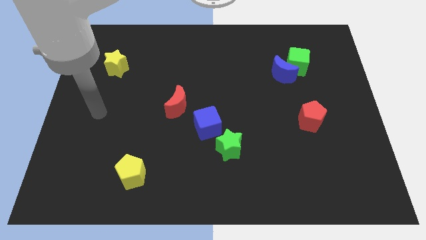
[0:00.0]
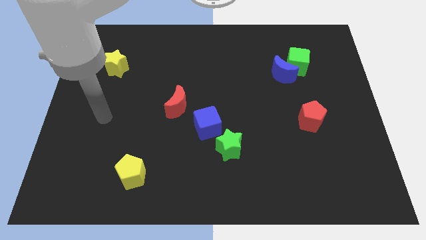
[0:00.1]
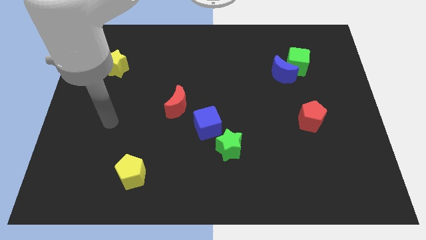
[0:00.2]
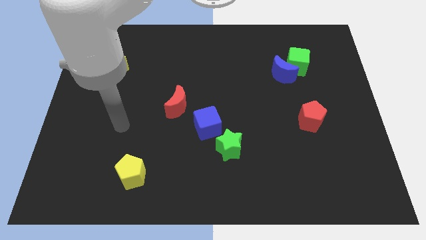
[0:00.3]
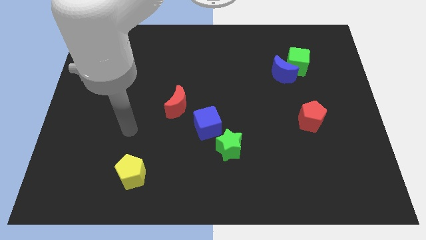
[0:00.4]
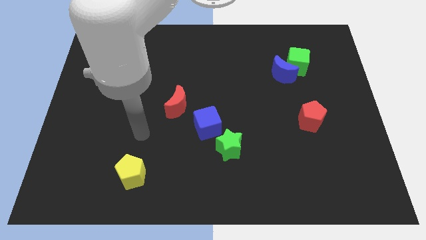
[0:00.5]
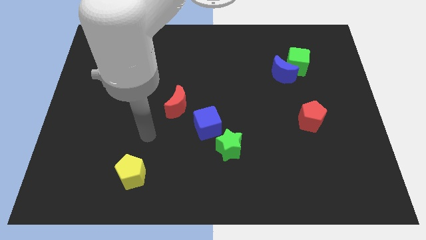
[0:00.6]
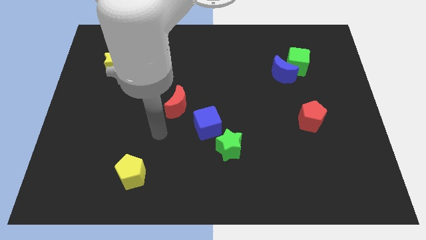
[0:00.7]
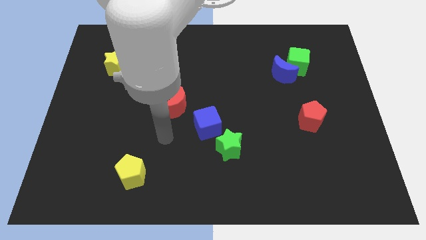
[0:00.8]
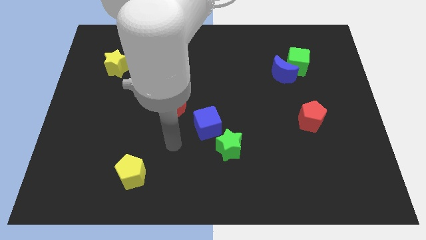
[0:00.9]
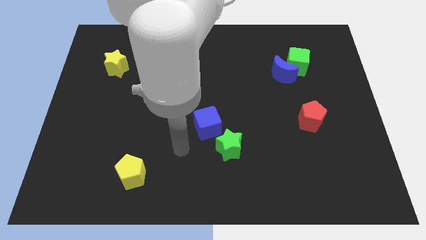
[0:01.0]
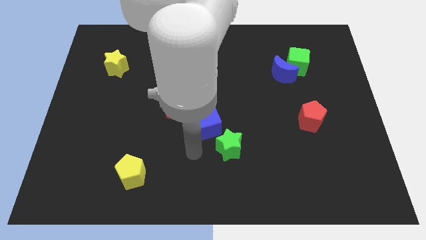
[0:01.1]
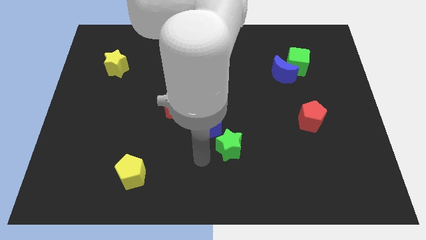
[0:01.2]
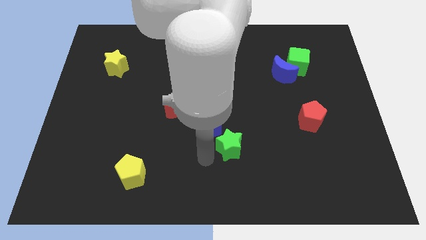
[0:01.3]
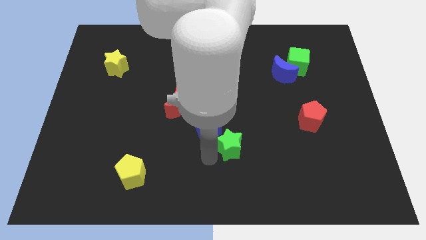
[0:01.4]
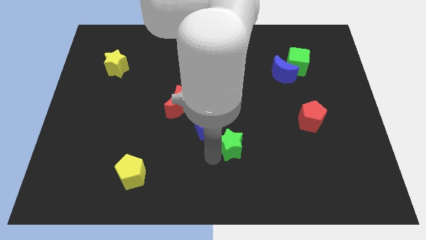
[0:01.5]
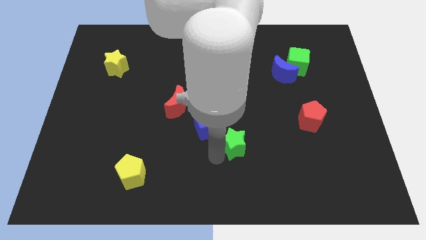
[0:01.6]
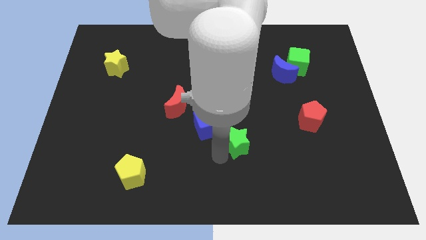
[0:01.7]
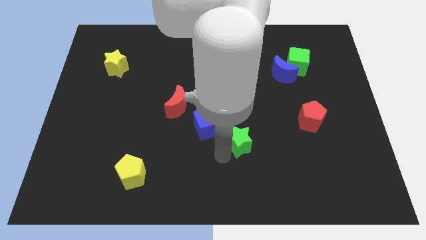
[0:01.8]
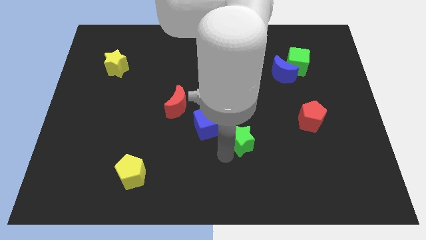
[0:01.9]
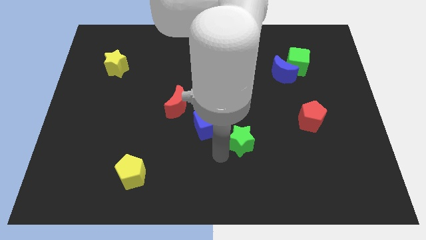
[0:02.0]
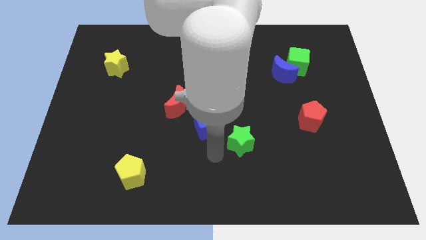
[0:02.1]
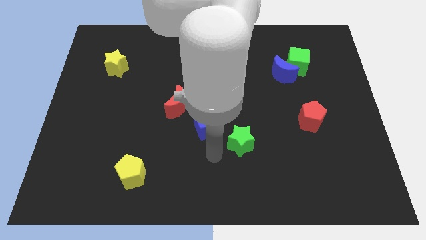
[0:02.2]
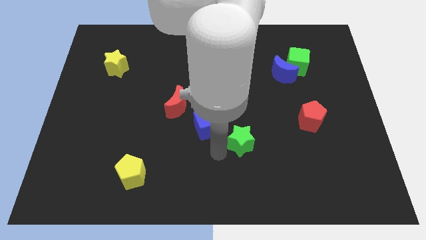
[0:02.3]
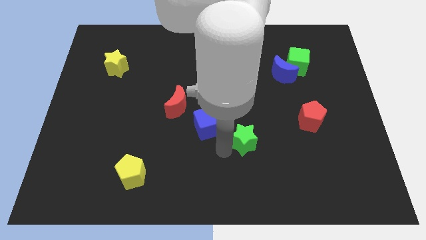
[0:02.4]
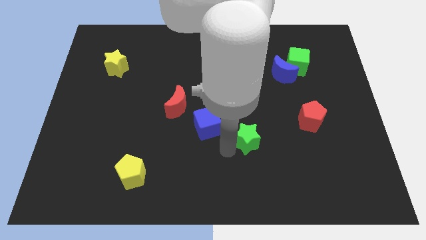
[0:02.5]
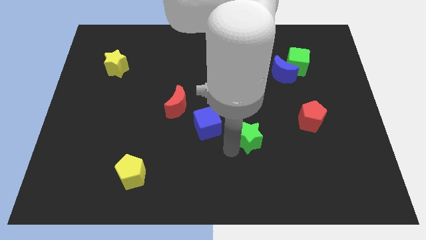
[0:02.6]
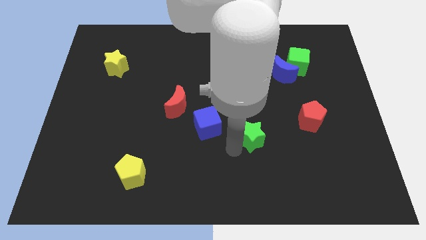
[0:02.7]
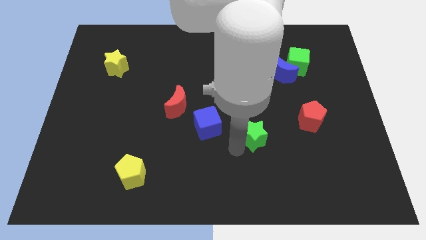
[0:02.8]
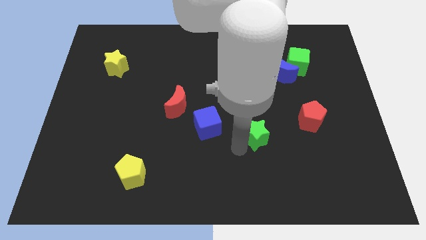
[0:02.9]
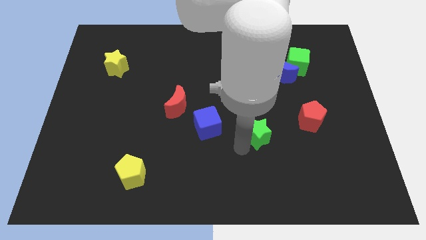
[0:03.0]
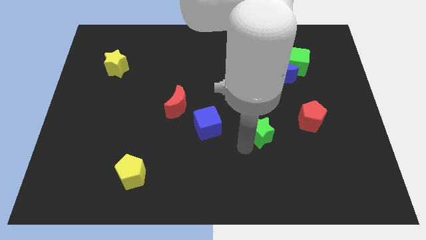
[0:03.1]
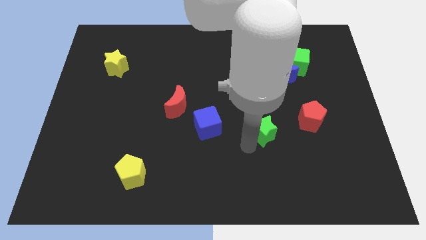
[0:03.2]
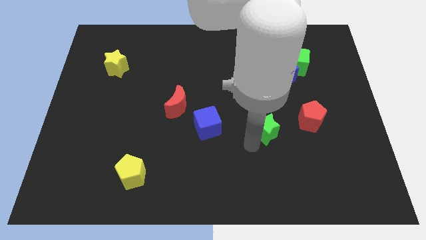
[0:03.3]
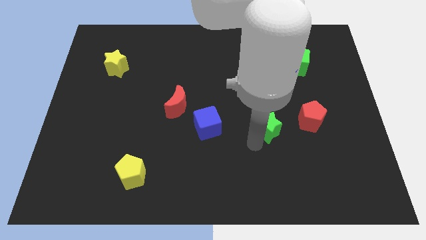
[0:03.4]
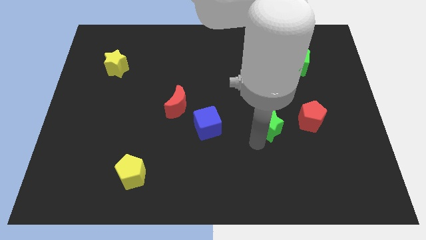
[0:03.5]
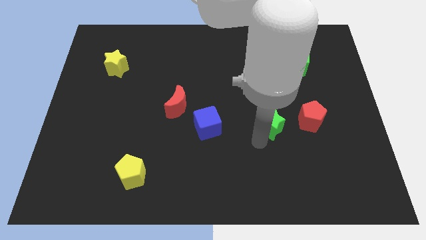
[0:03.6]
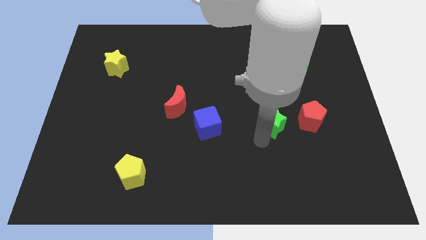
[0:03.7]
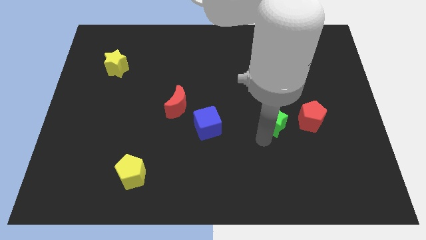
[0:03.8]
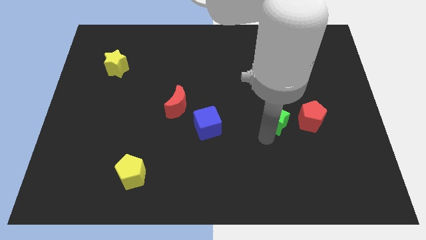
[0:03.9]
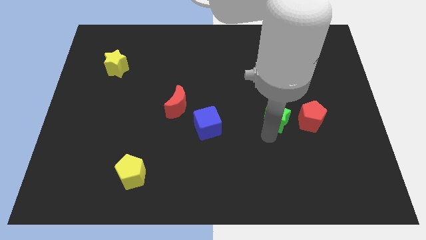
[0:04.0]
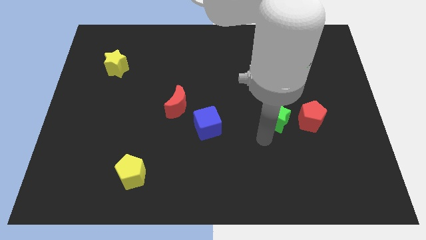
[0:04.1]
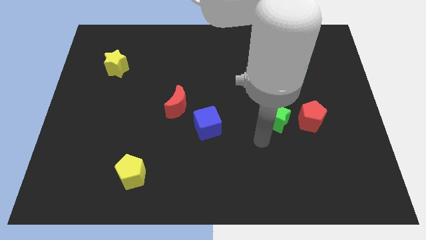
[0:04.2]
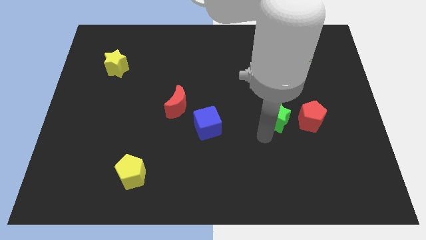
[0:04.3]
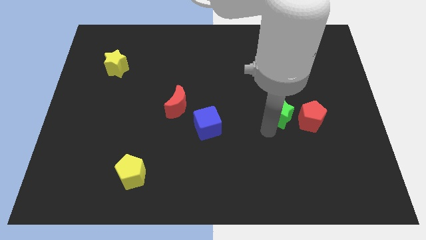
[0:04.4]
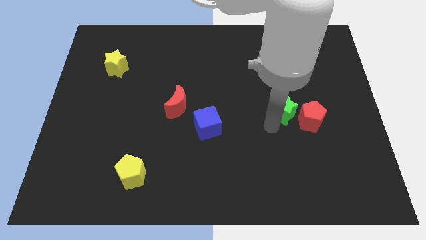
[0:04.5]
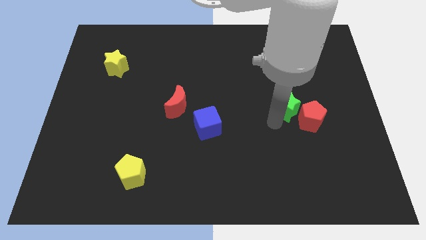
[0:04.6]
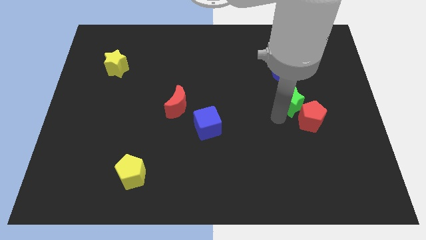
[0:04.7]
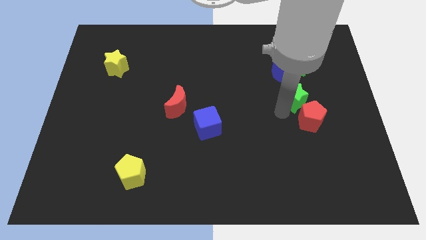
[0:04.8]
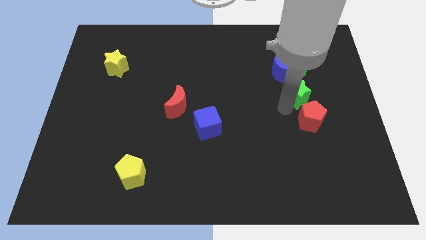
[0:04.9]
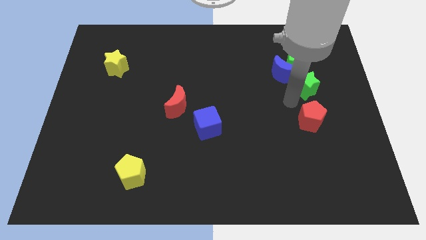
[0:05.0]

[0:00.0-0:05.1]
put the green star right of the blue moon

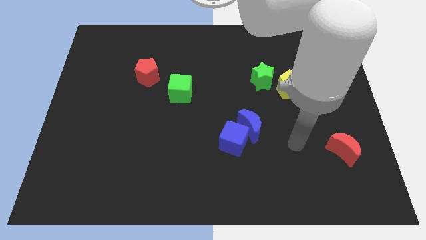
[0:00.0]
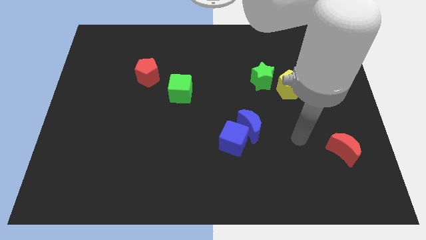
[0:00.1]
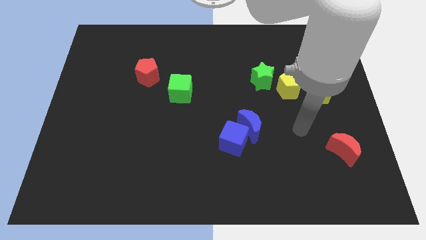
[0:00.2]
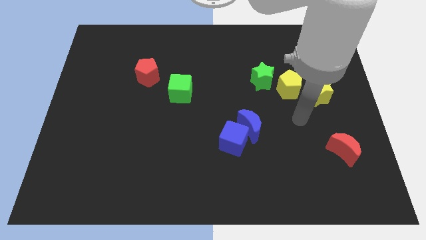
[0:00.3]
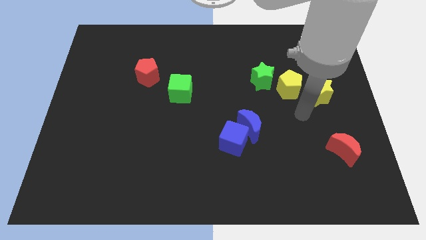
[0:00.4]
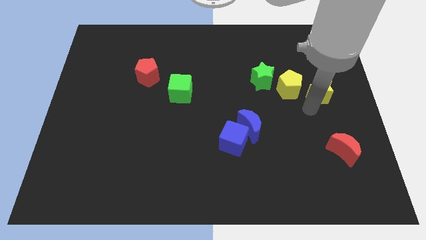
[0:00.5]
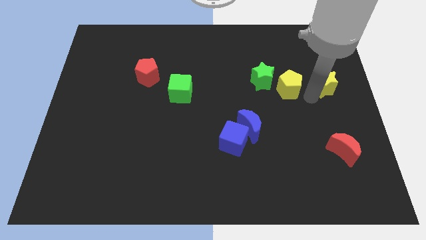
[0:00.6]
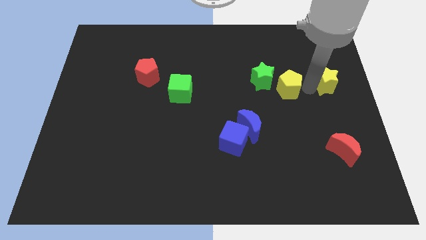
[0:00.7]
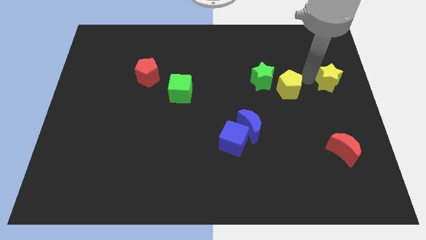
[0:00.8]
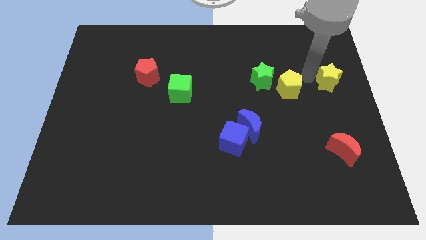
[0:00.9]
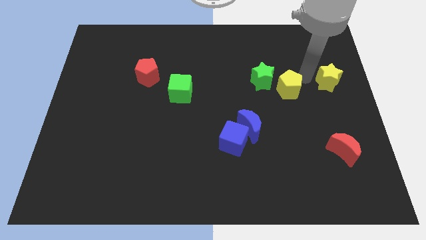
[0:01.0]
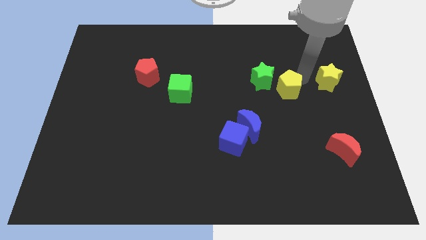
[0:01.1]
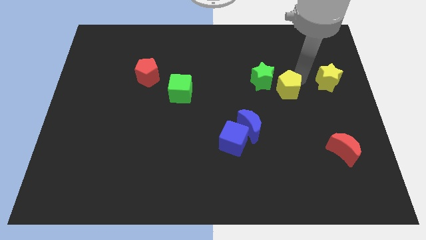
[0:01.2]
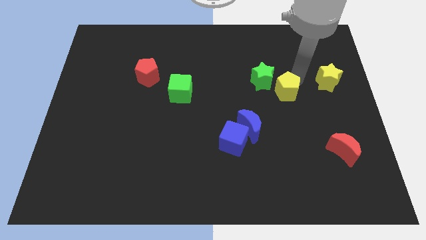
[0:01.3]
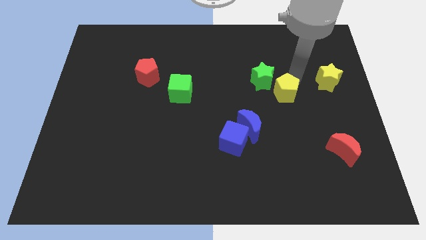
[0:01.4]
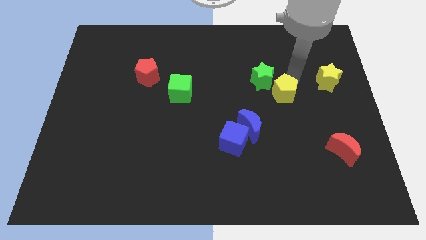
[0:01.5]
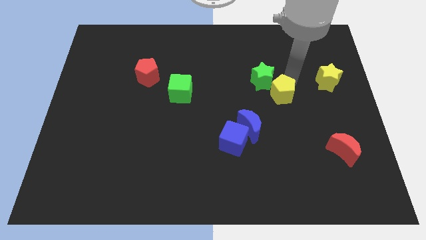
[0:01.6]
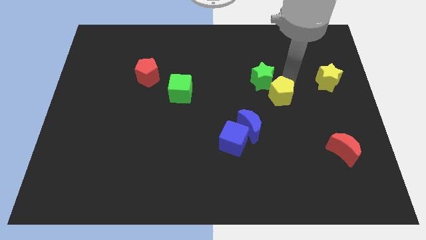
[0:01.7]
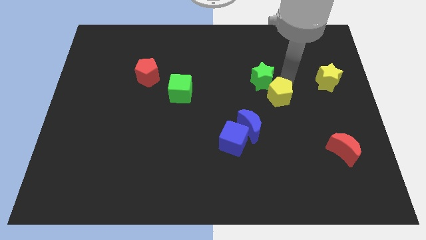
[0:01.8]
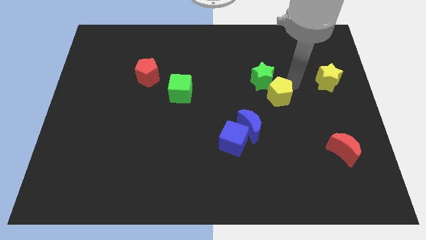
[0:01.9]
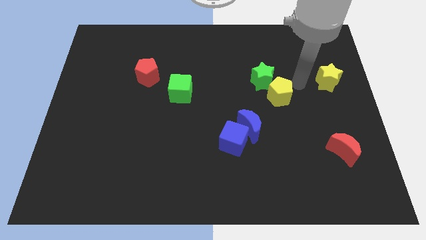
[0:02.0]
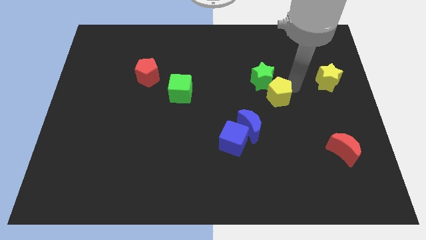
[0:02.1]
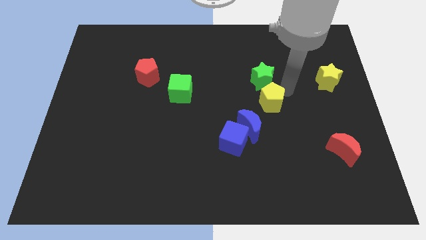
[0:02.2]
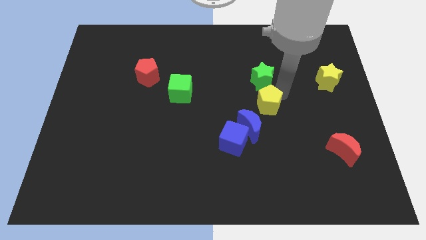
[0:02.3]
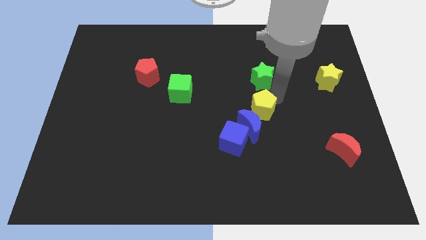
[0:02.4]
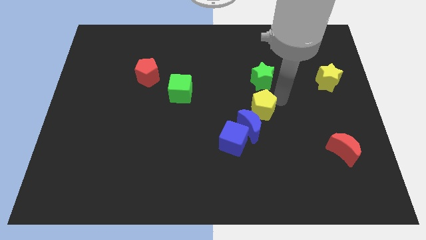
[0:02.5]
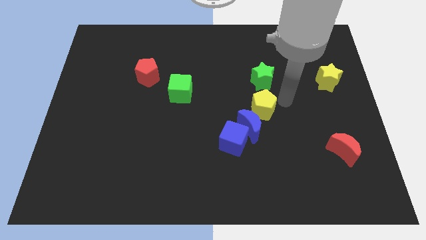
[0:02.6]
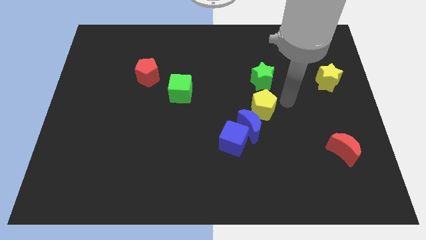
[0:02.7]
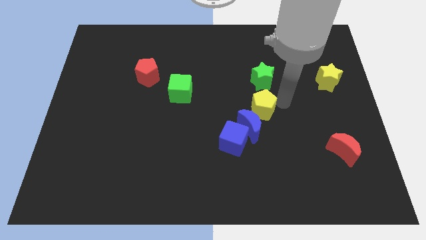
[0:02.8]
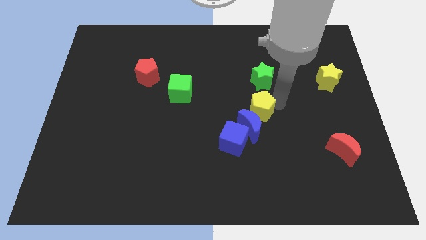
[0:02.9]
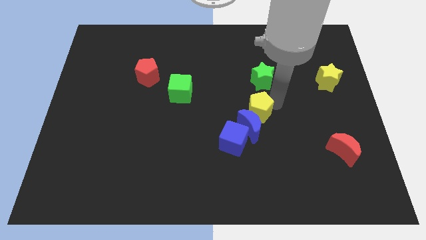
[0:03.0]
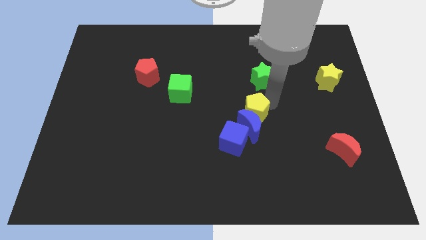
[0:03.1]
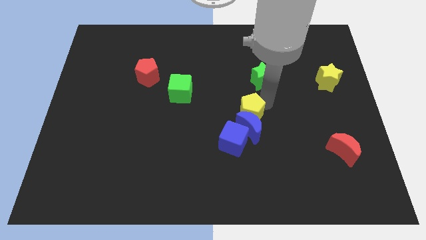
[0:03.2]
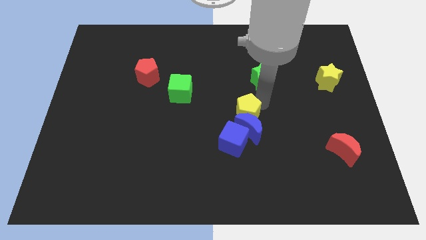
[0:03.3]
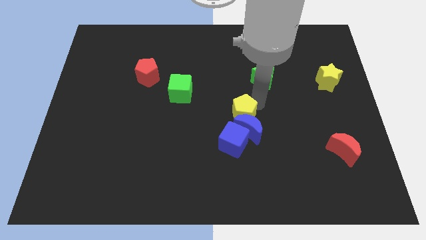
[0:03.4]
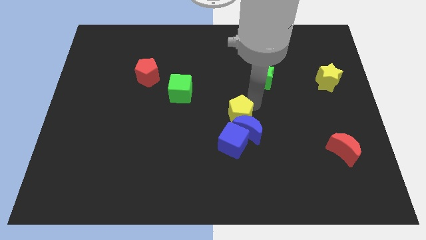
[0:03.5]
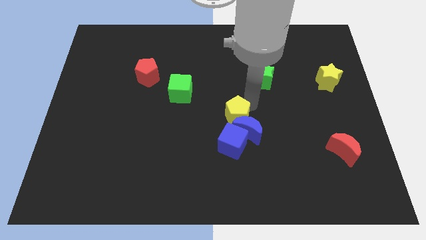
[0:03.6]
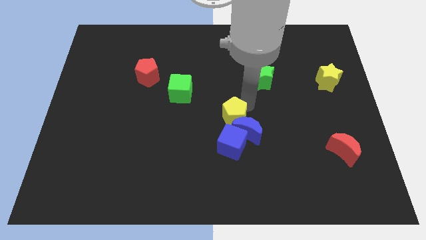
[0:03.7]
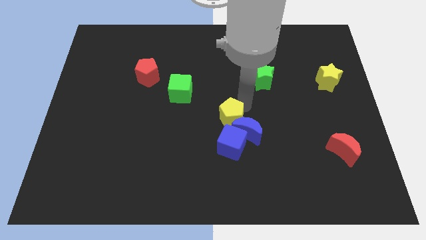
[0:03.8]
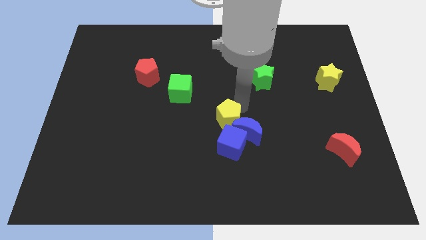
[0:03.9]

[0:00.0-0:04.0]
move the yellow pentagon diagonally up and to the left of the blue cube
